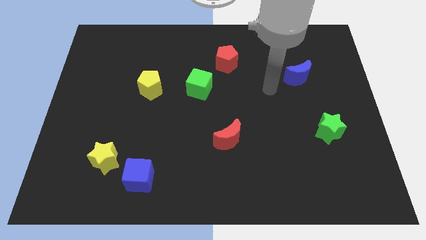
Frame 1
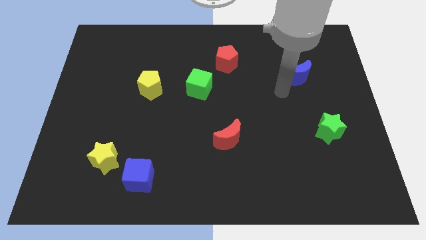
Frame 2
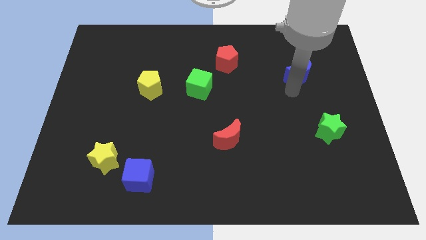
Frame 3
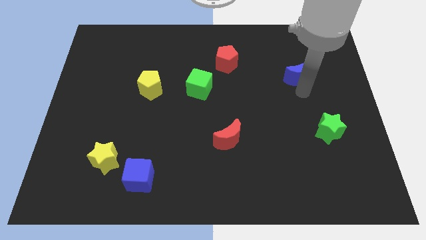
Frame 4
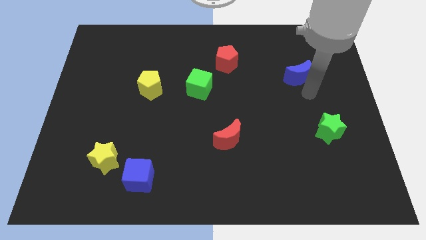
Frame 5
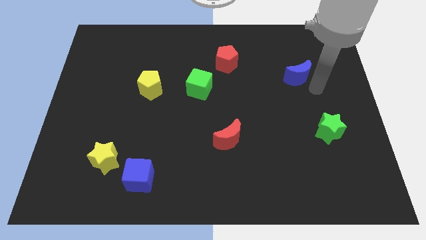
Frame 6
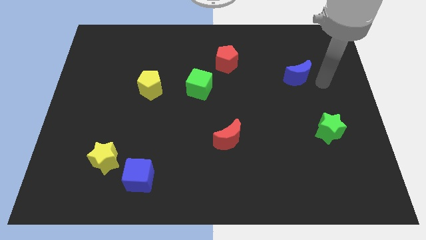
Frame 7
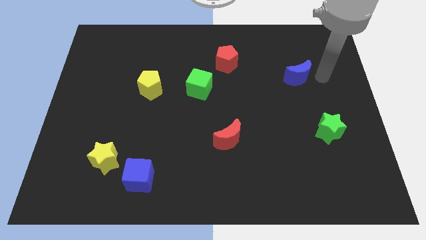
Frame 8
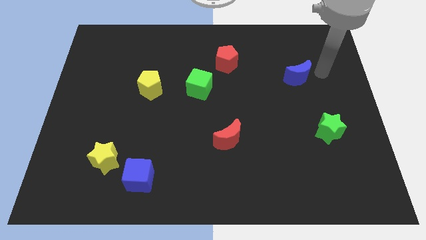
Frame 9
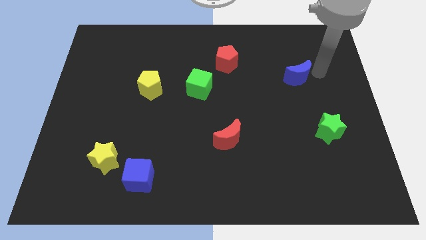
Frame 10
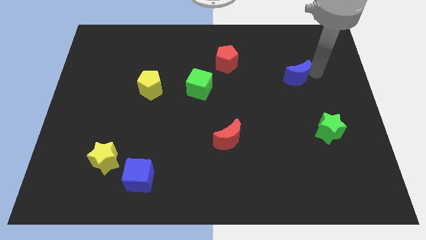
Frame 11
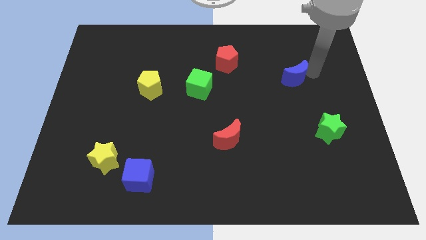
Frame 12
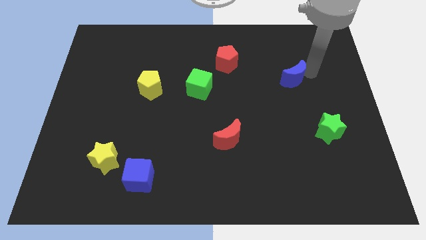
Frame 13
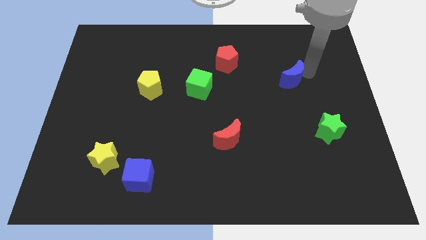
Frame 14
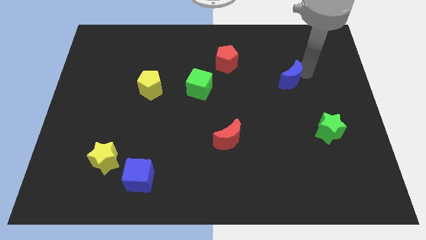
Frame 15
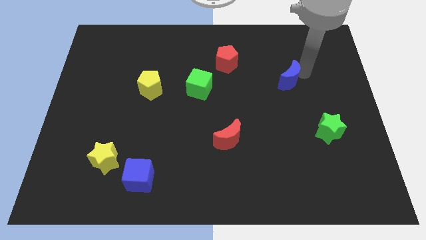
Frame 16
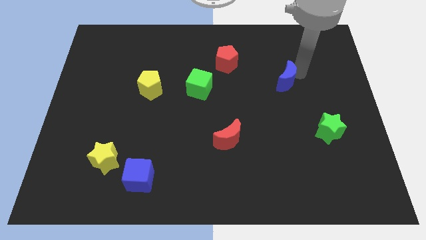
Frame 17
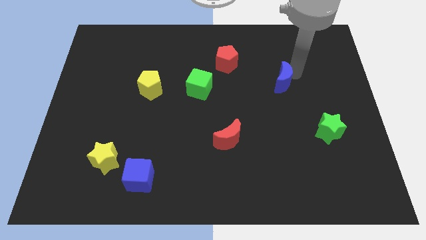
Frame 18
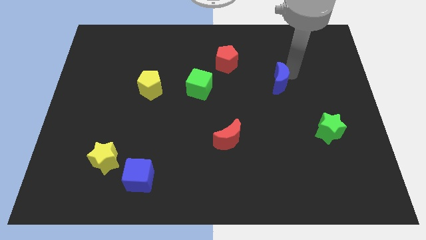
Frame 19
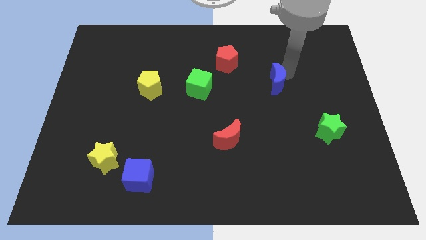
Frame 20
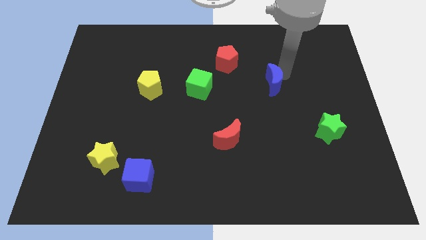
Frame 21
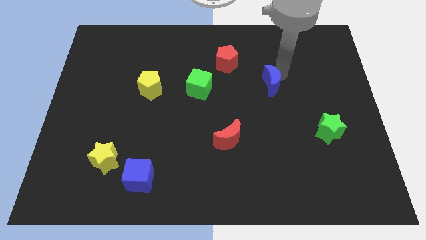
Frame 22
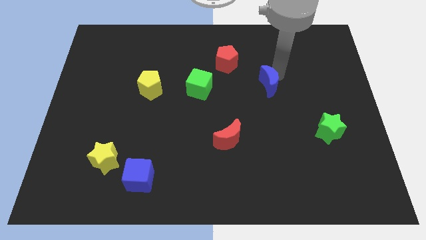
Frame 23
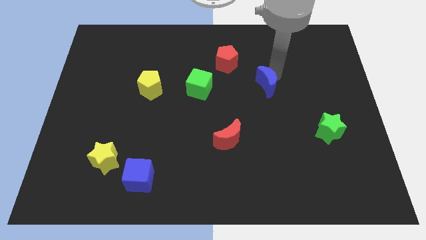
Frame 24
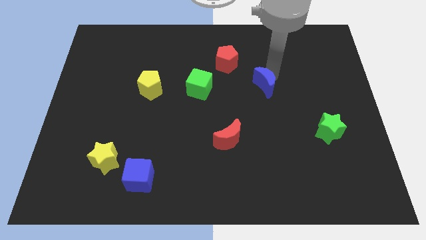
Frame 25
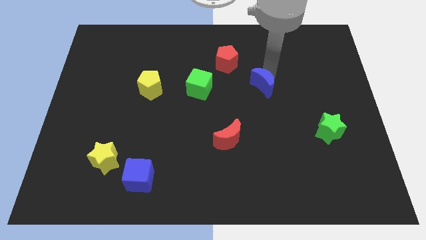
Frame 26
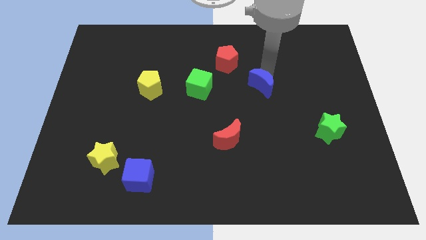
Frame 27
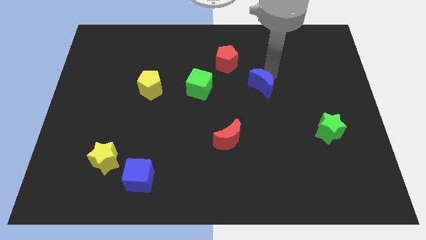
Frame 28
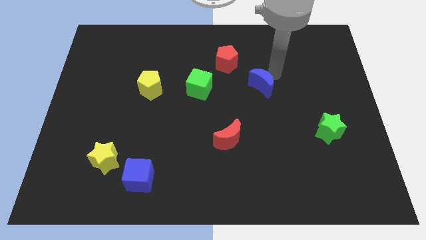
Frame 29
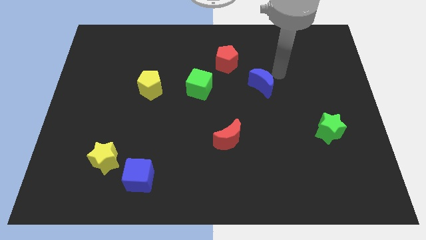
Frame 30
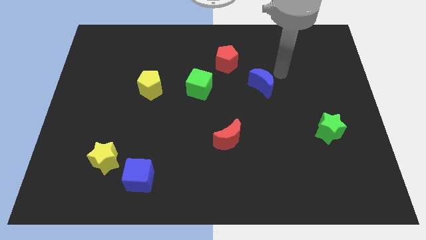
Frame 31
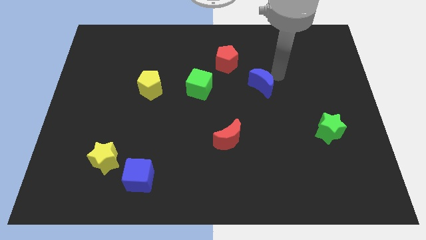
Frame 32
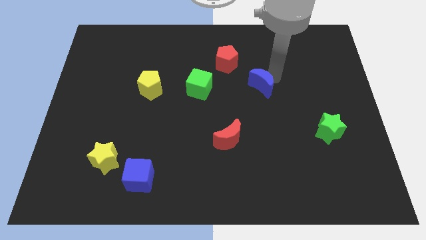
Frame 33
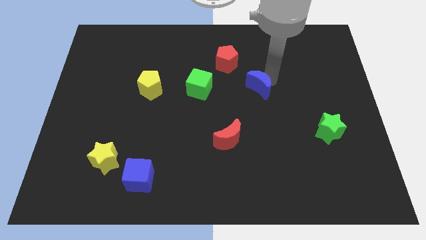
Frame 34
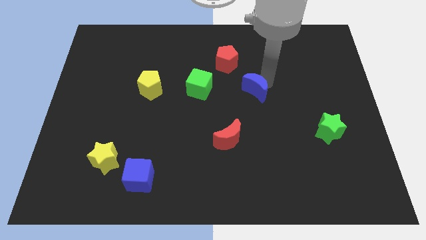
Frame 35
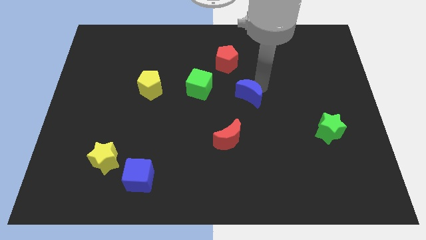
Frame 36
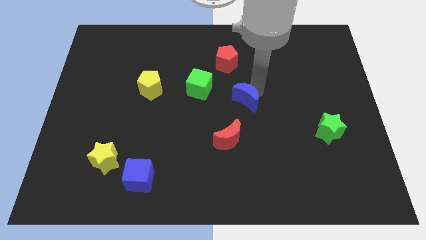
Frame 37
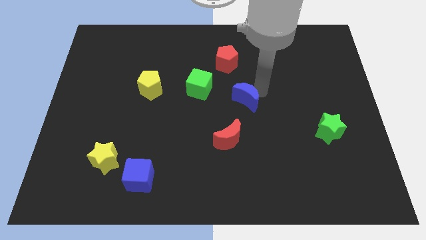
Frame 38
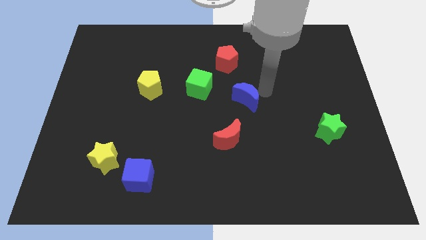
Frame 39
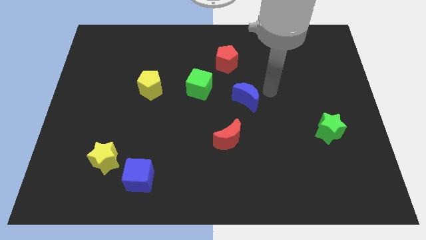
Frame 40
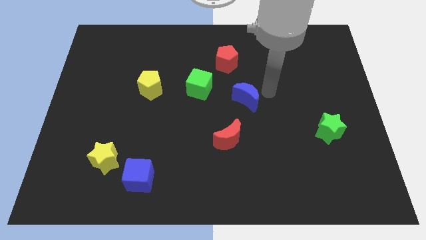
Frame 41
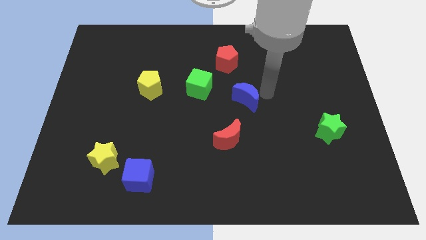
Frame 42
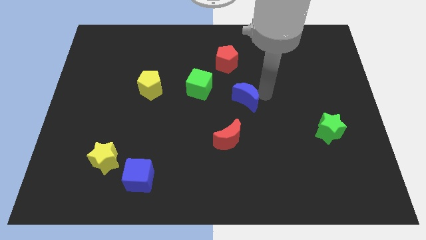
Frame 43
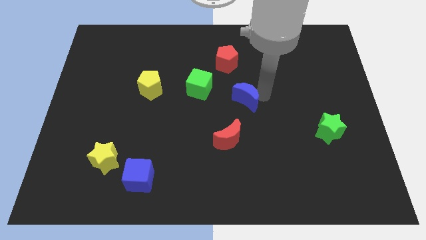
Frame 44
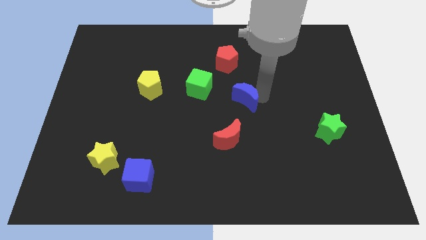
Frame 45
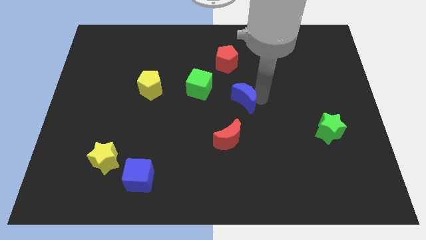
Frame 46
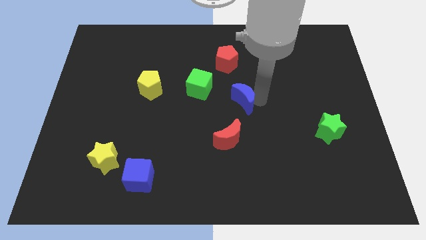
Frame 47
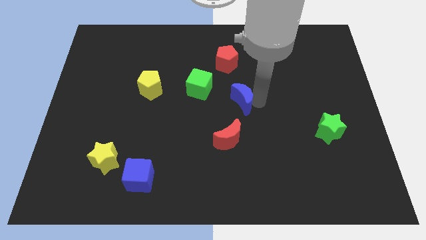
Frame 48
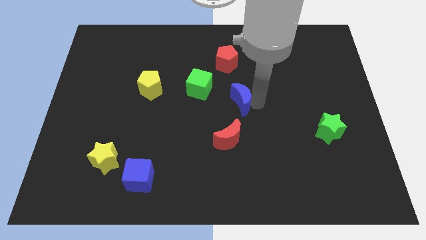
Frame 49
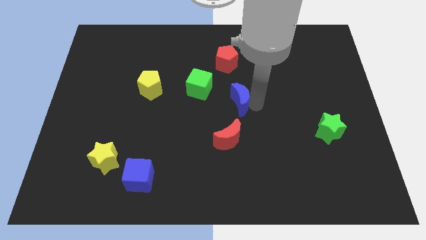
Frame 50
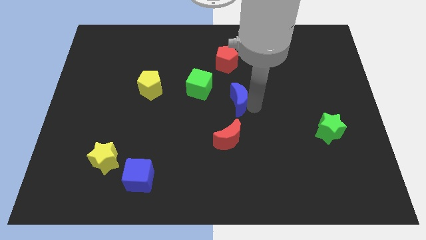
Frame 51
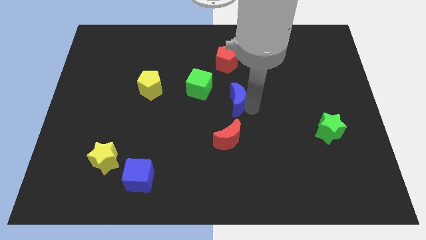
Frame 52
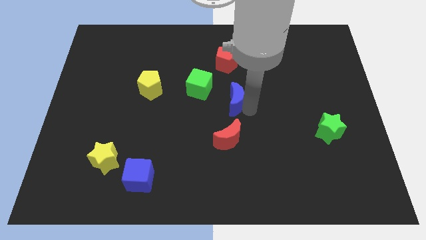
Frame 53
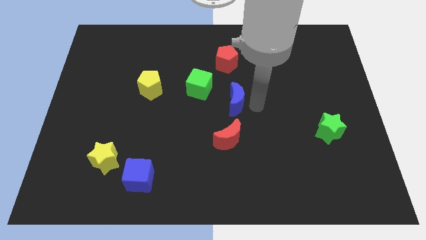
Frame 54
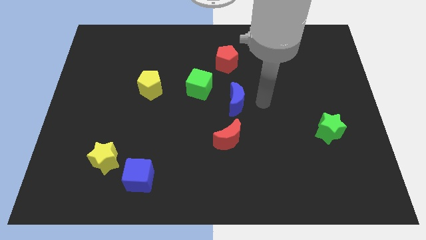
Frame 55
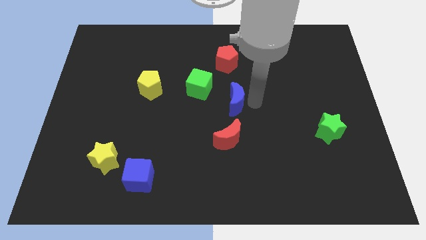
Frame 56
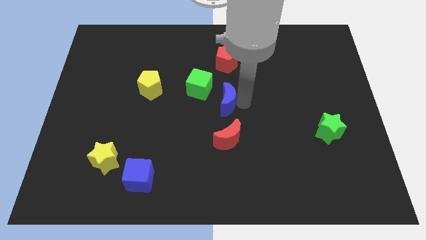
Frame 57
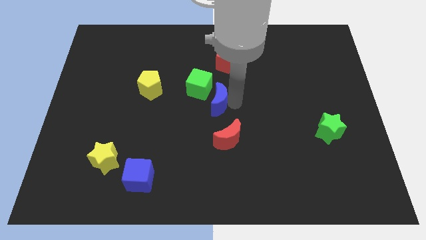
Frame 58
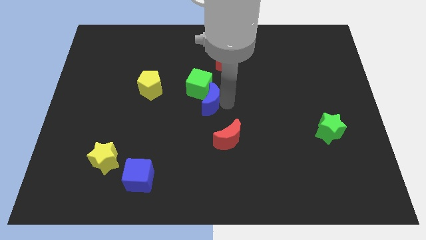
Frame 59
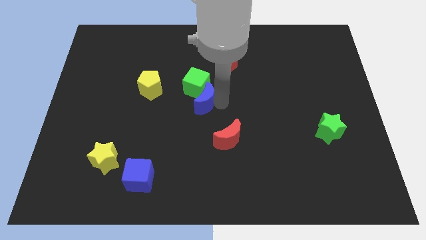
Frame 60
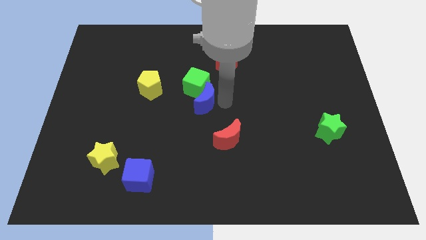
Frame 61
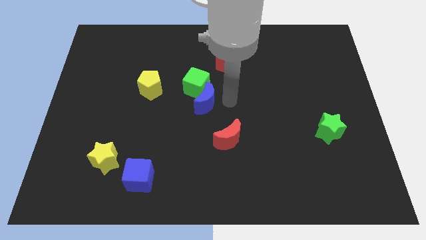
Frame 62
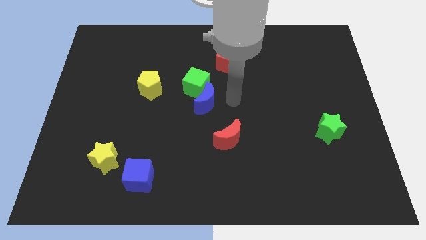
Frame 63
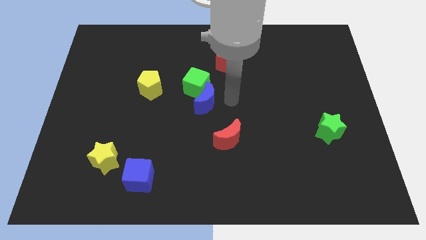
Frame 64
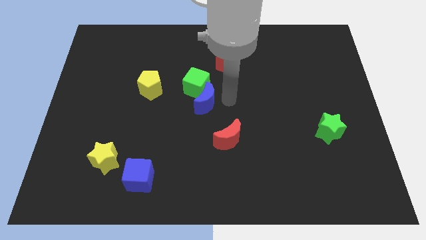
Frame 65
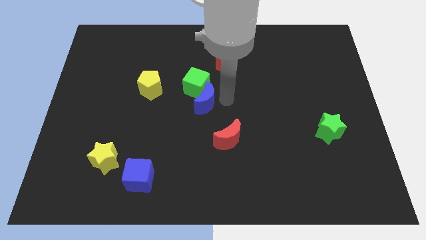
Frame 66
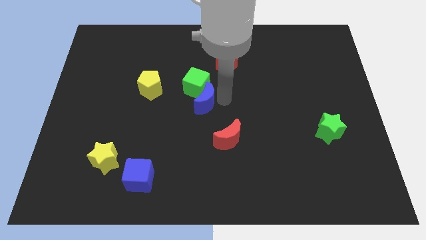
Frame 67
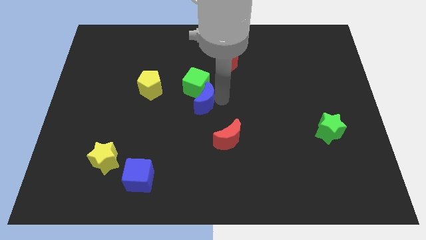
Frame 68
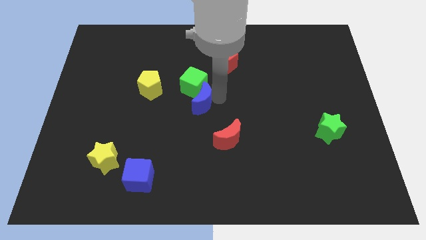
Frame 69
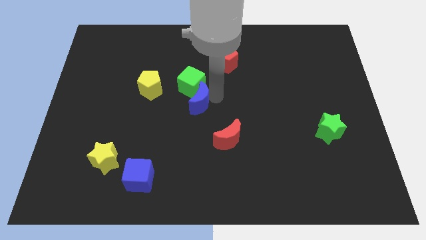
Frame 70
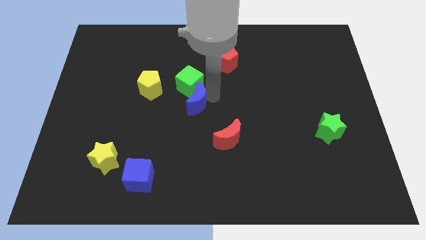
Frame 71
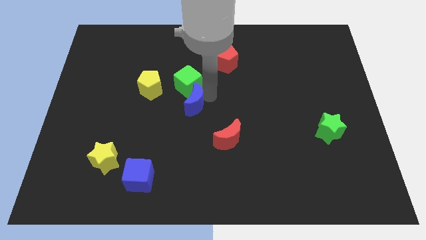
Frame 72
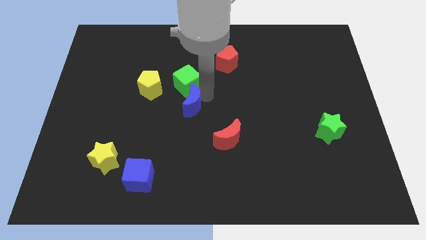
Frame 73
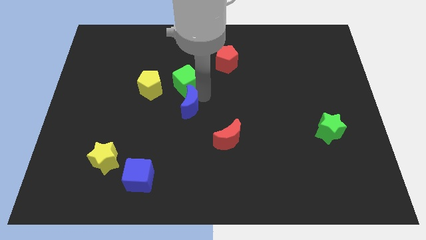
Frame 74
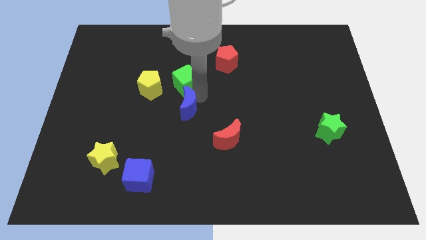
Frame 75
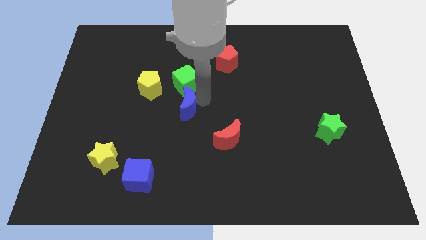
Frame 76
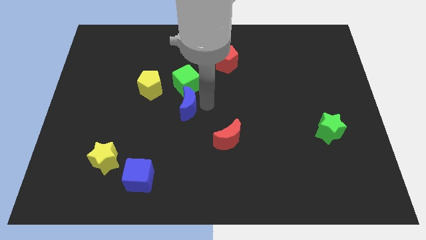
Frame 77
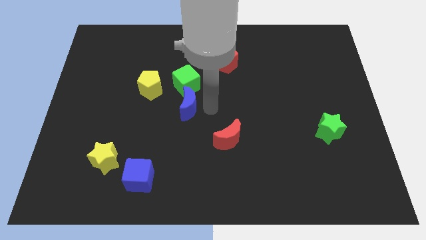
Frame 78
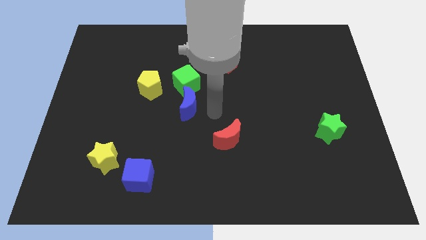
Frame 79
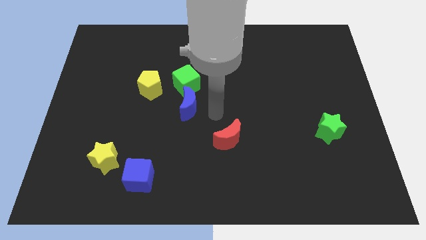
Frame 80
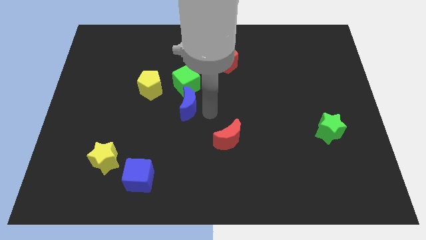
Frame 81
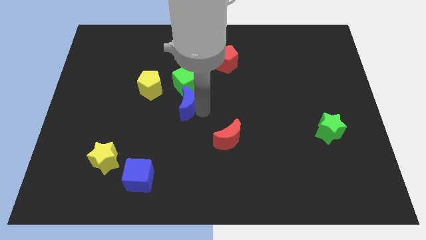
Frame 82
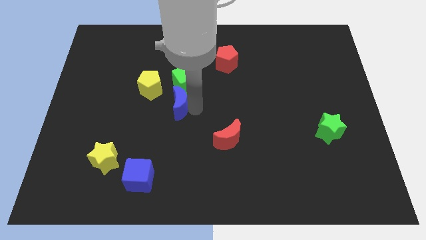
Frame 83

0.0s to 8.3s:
push the blue moon to the bottom left of the green cube
